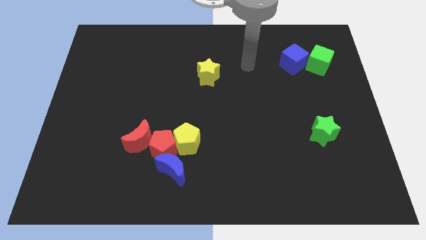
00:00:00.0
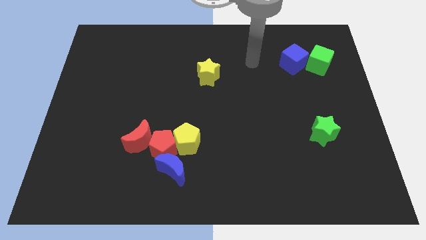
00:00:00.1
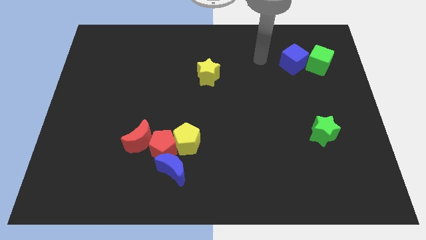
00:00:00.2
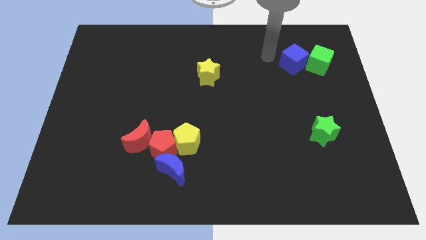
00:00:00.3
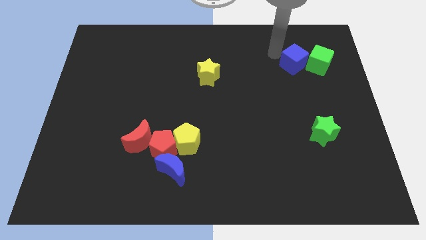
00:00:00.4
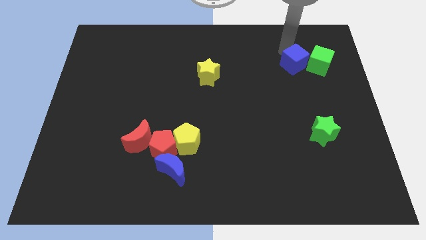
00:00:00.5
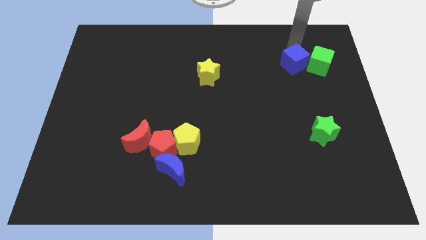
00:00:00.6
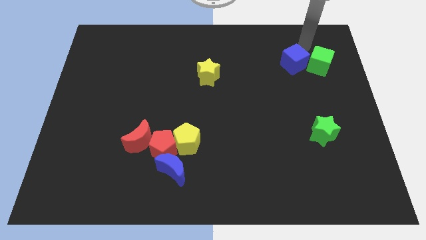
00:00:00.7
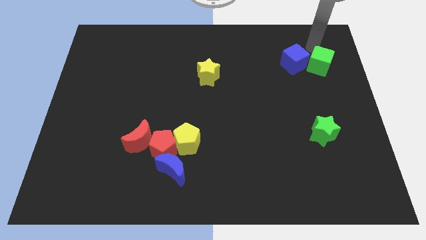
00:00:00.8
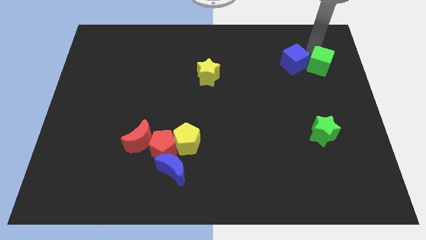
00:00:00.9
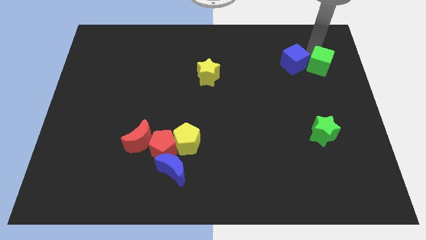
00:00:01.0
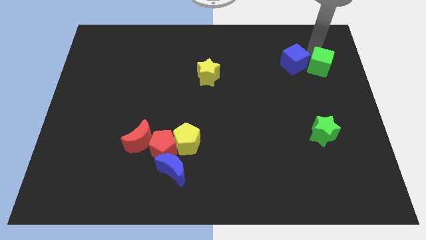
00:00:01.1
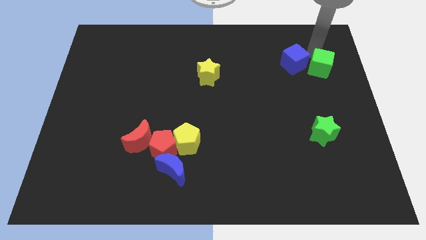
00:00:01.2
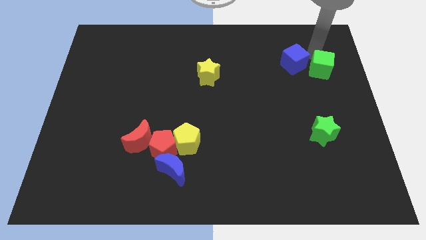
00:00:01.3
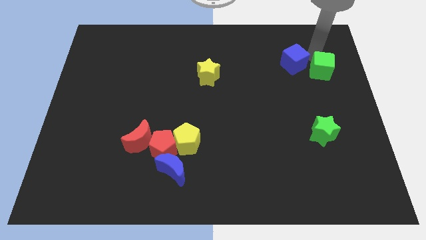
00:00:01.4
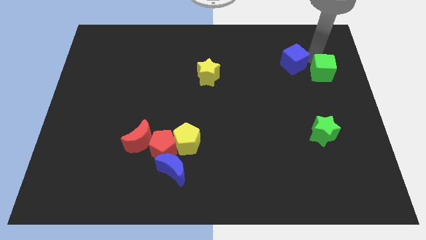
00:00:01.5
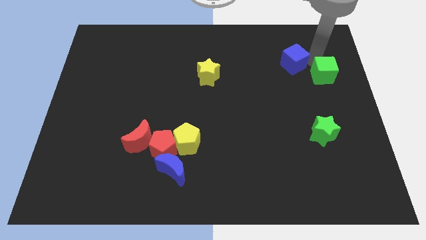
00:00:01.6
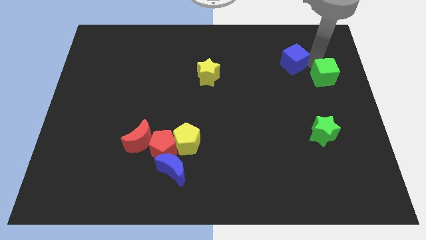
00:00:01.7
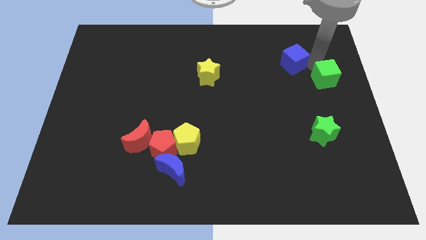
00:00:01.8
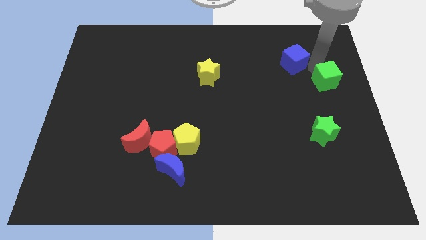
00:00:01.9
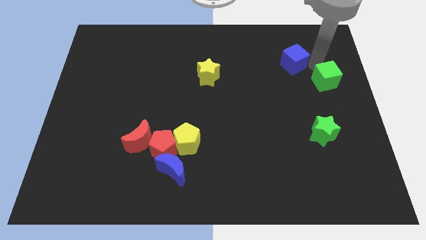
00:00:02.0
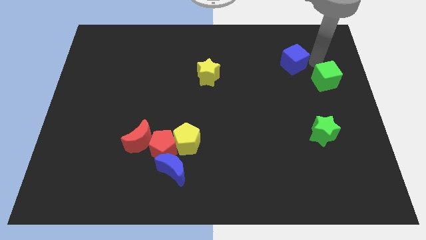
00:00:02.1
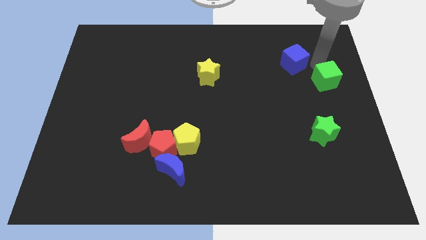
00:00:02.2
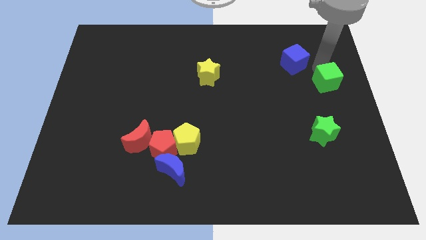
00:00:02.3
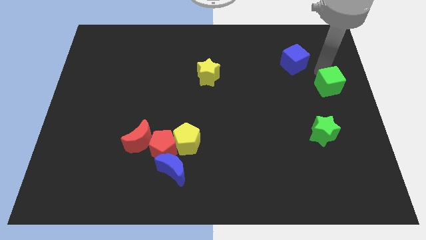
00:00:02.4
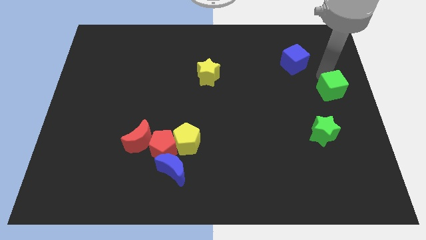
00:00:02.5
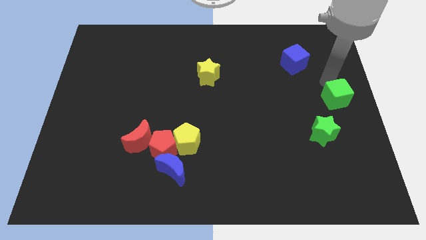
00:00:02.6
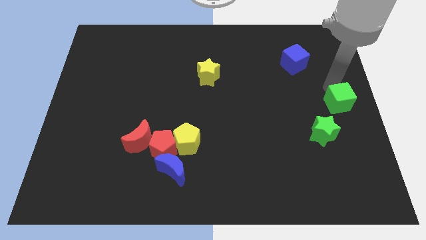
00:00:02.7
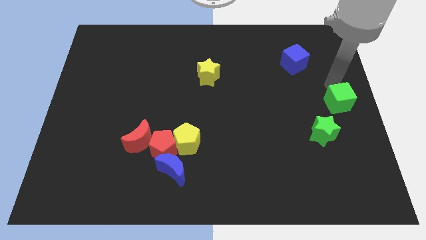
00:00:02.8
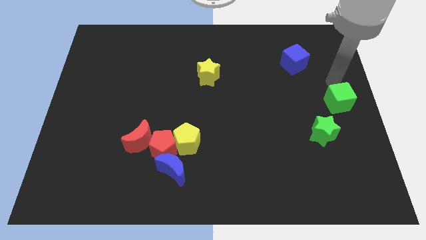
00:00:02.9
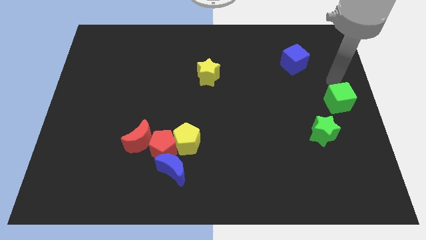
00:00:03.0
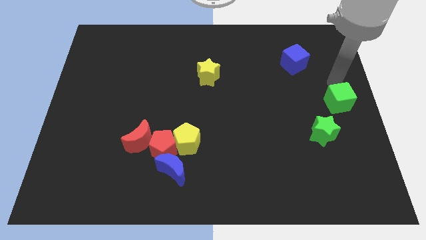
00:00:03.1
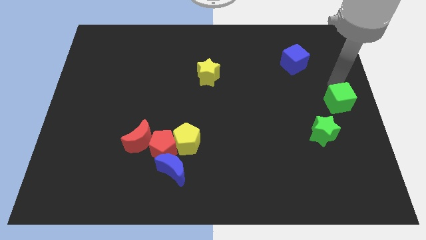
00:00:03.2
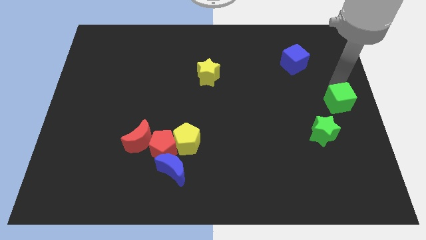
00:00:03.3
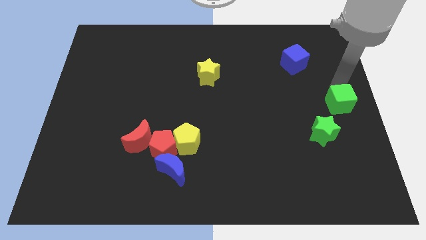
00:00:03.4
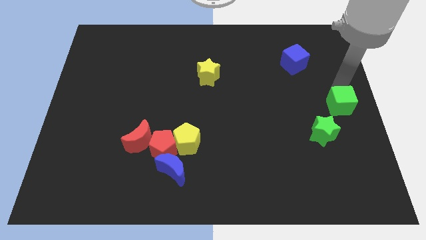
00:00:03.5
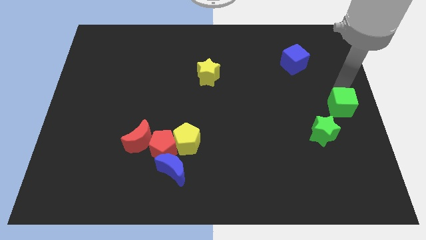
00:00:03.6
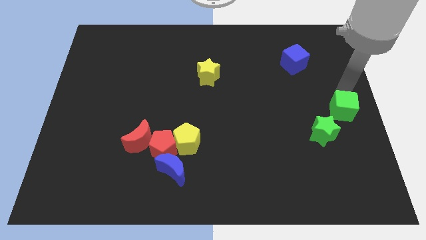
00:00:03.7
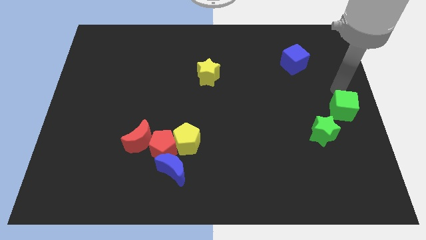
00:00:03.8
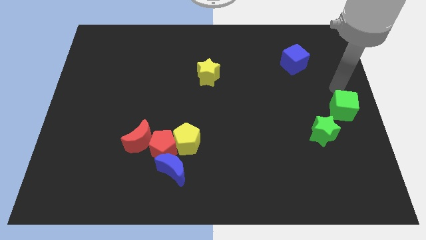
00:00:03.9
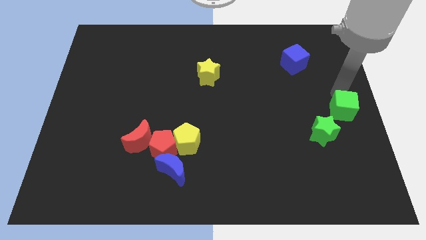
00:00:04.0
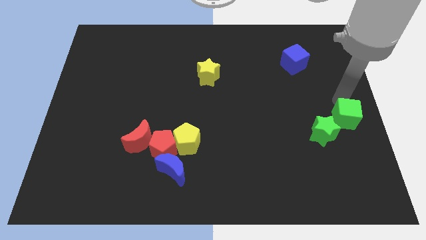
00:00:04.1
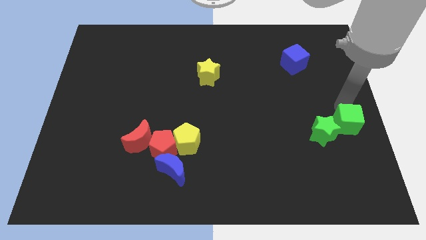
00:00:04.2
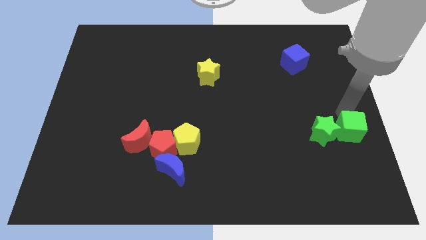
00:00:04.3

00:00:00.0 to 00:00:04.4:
slide the green cube downwards

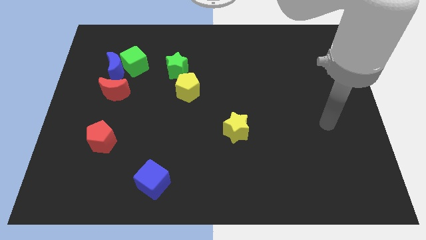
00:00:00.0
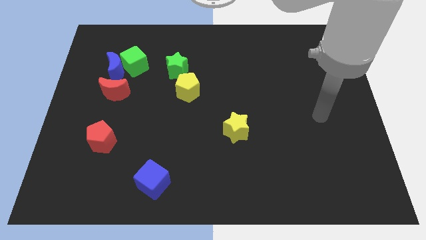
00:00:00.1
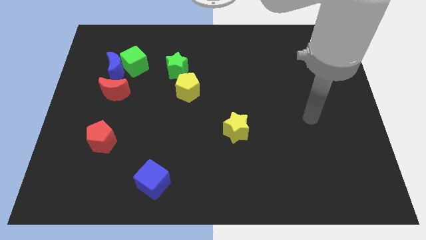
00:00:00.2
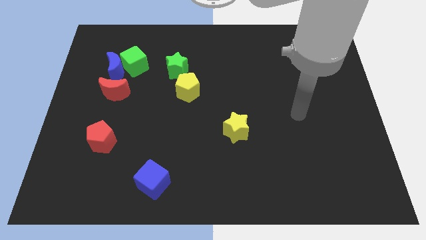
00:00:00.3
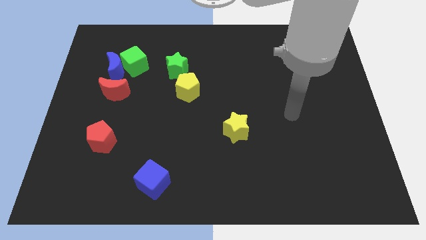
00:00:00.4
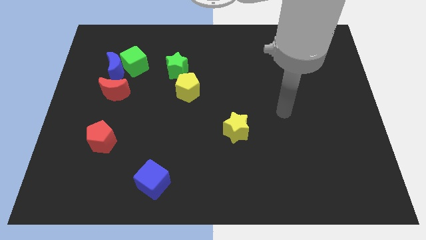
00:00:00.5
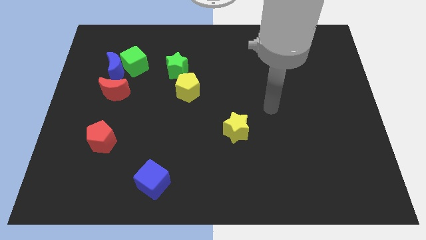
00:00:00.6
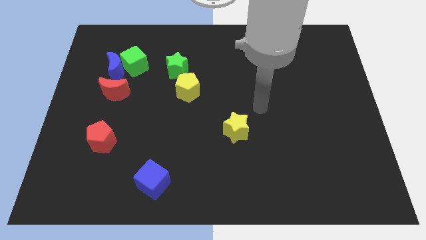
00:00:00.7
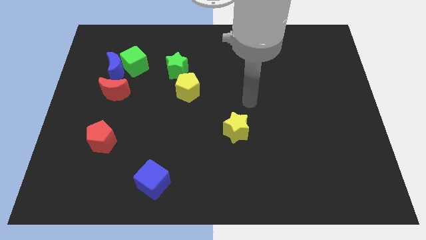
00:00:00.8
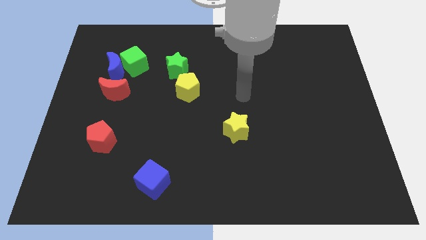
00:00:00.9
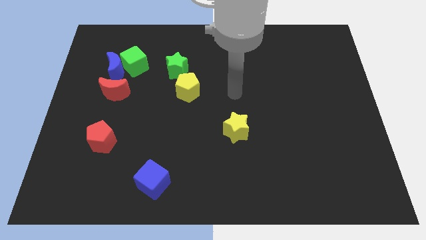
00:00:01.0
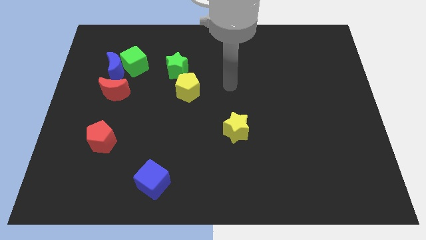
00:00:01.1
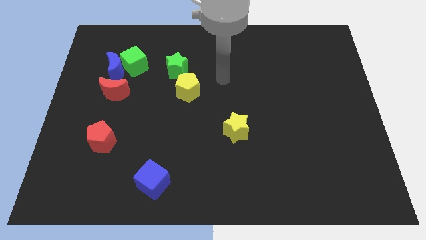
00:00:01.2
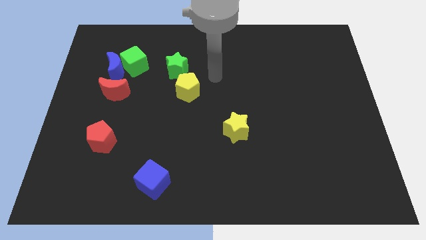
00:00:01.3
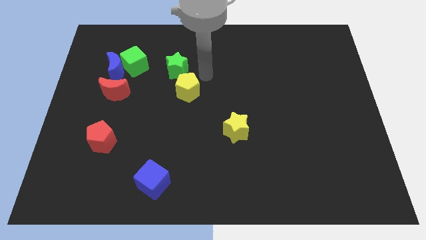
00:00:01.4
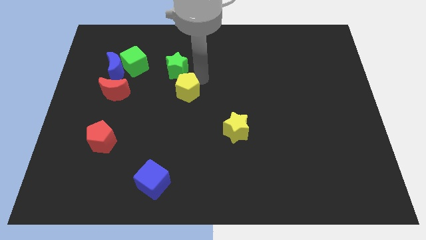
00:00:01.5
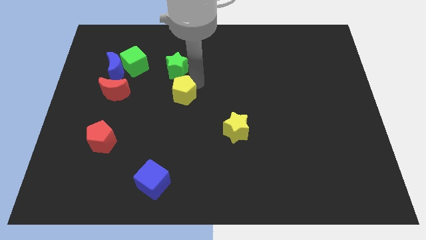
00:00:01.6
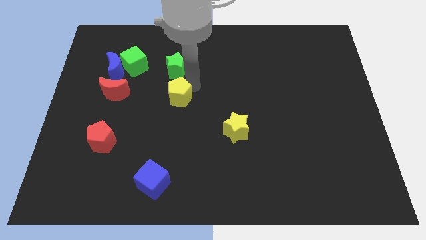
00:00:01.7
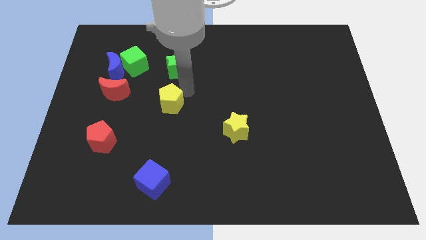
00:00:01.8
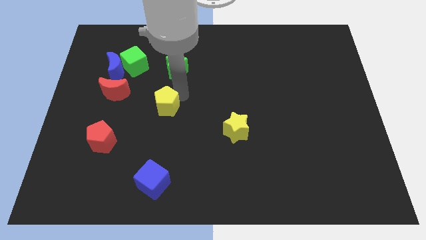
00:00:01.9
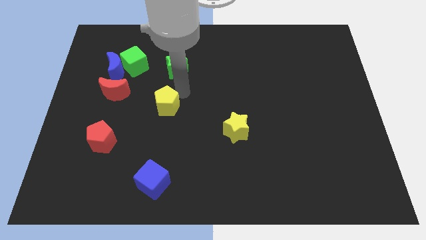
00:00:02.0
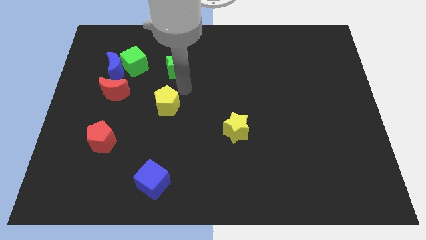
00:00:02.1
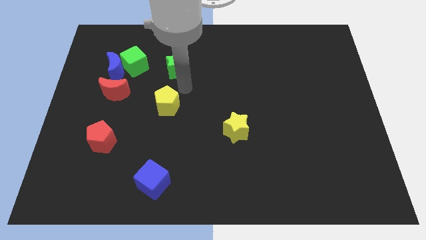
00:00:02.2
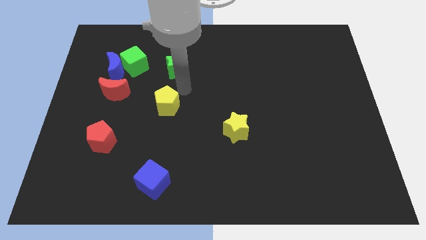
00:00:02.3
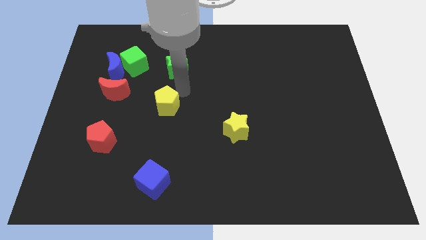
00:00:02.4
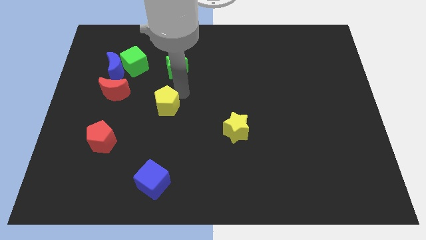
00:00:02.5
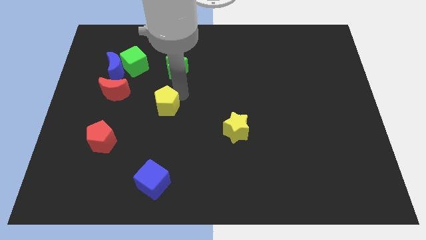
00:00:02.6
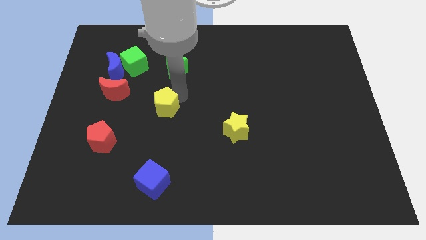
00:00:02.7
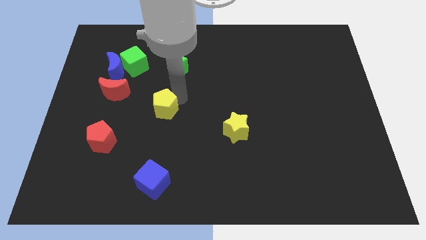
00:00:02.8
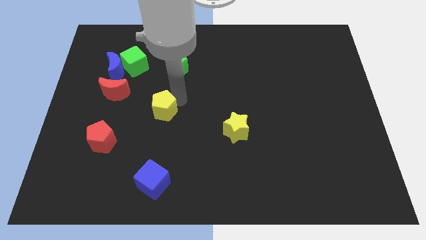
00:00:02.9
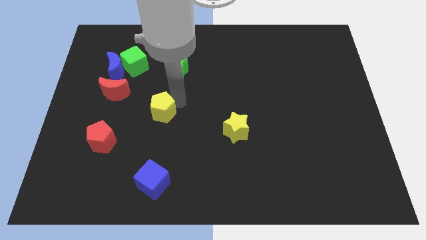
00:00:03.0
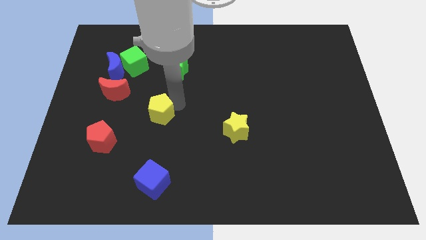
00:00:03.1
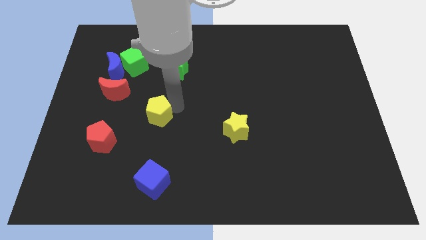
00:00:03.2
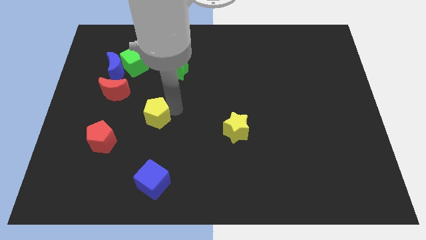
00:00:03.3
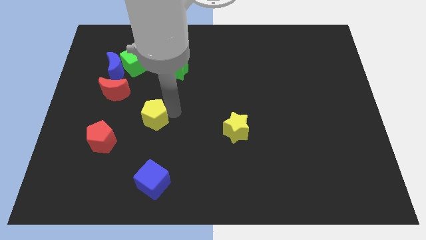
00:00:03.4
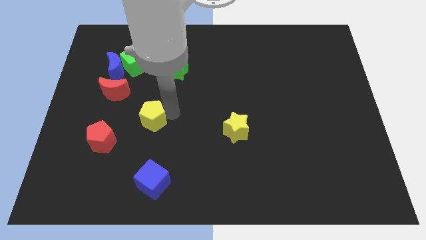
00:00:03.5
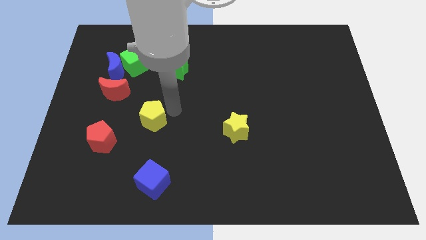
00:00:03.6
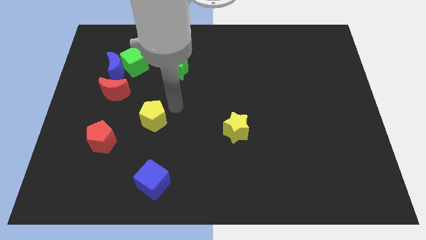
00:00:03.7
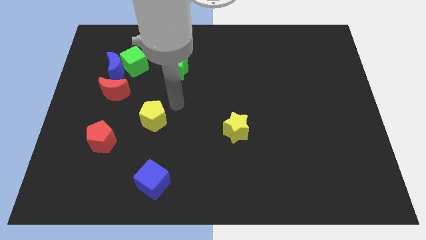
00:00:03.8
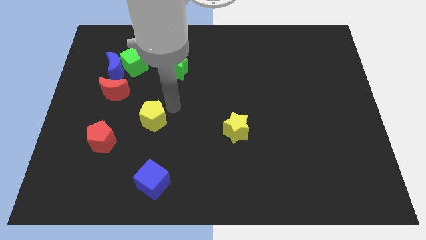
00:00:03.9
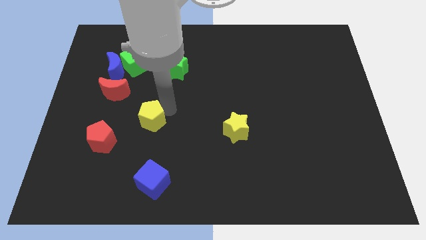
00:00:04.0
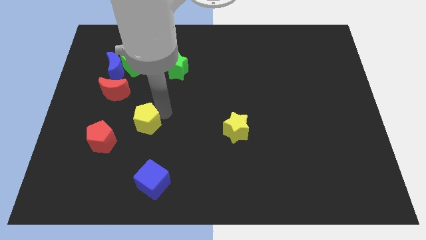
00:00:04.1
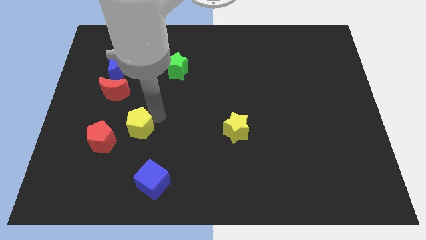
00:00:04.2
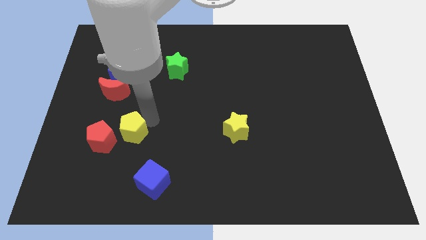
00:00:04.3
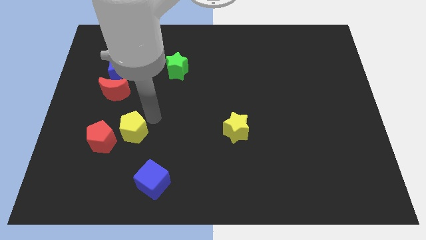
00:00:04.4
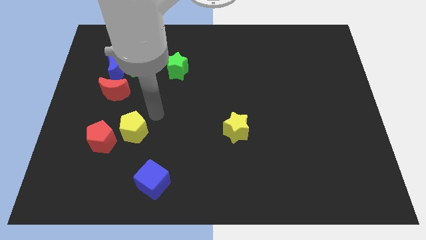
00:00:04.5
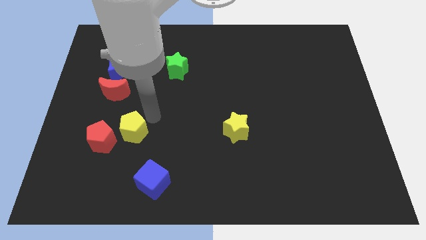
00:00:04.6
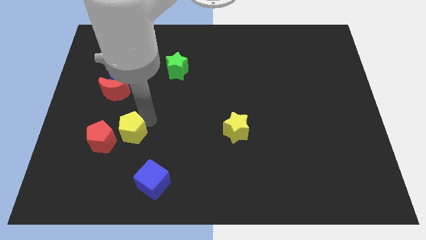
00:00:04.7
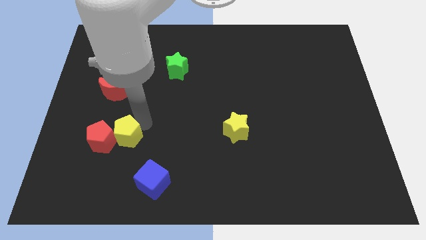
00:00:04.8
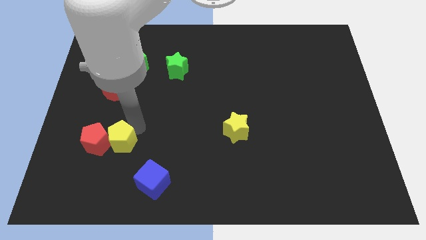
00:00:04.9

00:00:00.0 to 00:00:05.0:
move the yellow pentagon downwards and to the left diagonally
